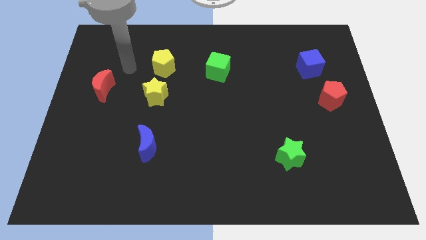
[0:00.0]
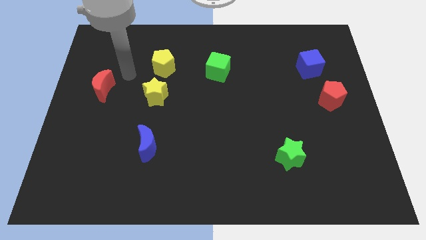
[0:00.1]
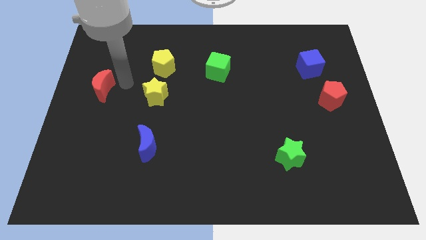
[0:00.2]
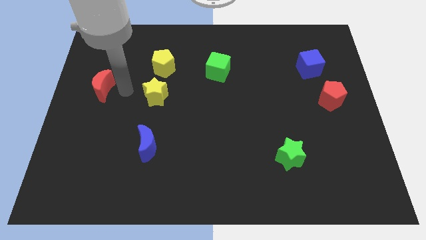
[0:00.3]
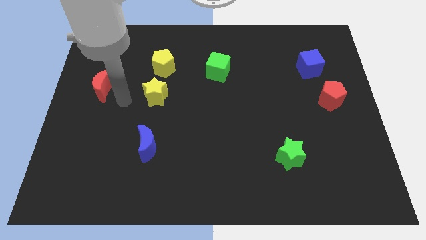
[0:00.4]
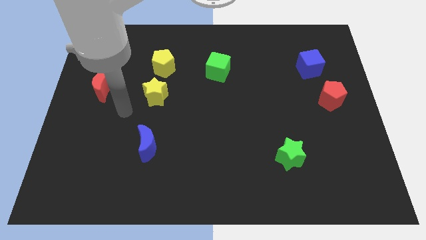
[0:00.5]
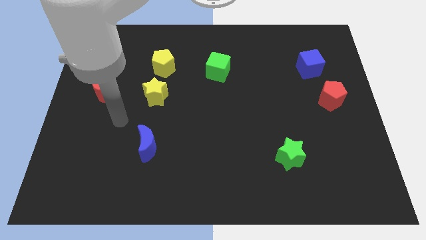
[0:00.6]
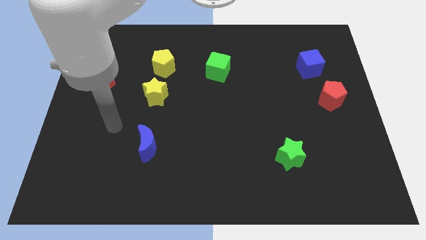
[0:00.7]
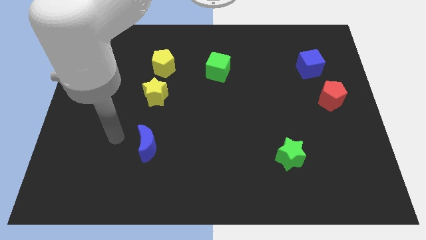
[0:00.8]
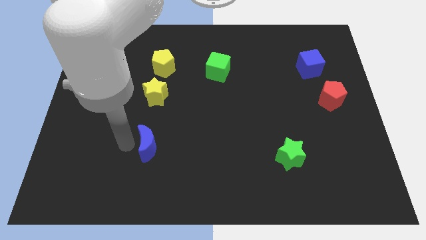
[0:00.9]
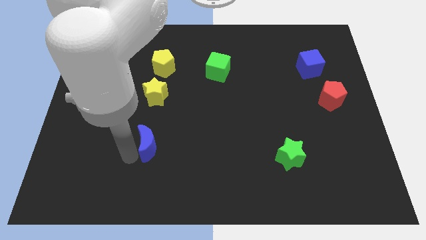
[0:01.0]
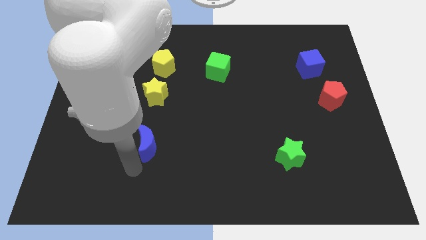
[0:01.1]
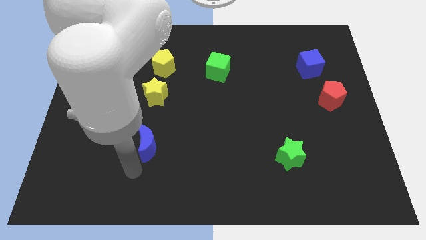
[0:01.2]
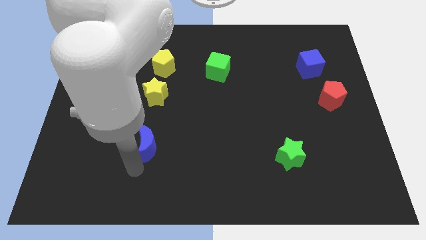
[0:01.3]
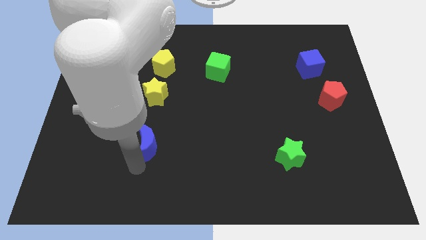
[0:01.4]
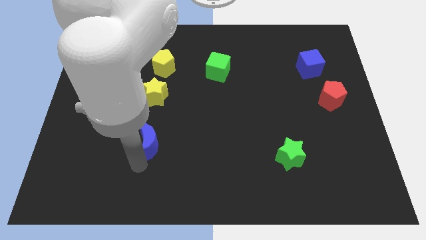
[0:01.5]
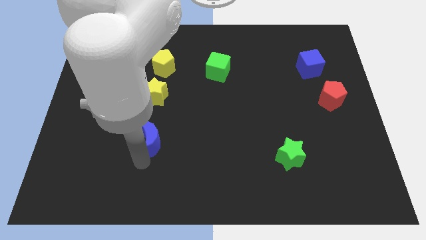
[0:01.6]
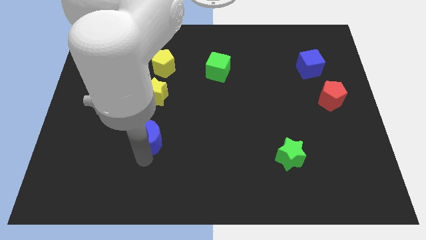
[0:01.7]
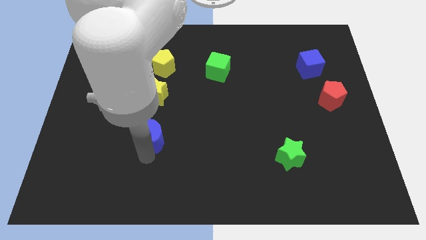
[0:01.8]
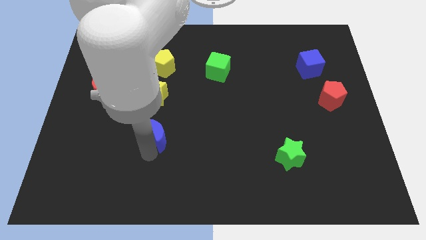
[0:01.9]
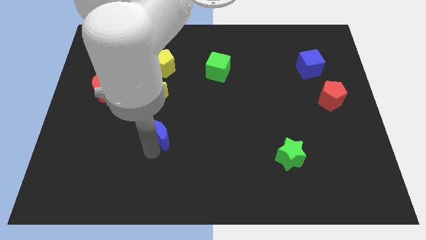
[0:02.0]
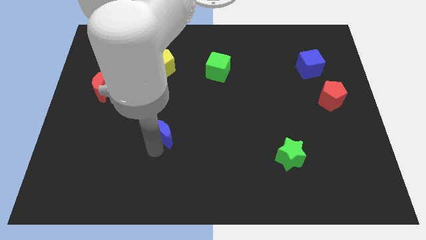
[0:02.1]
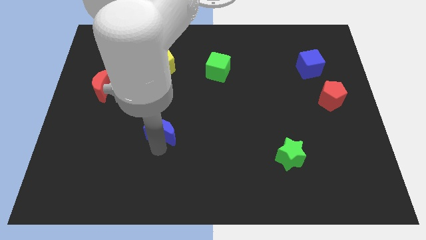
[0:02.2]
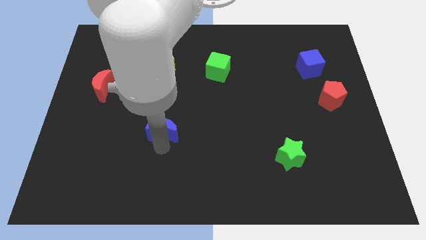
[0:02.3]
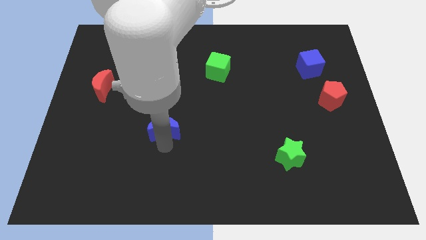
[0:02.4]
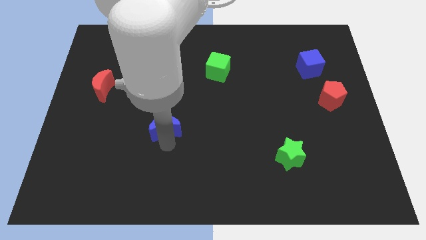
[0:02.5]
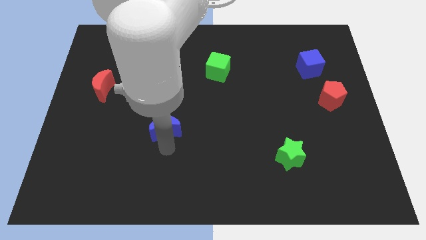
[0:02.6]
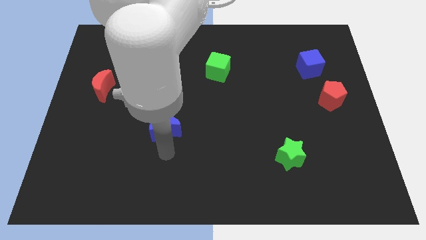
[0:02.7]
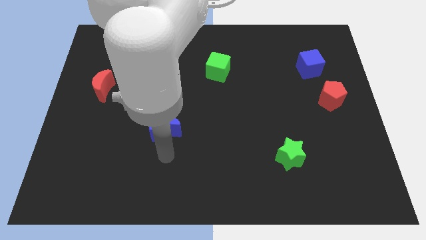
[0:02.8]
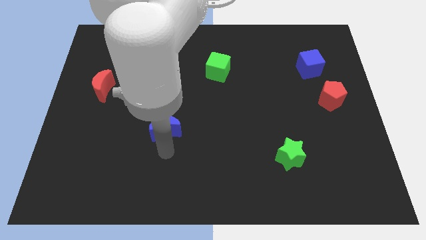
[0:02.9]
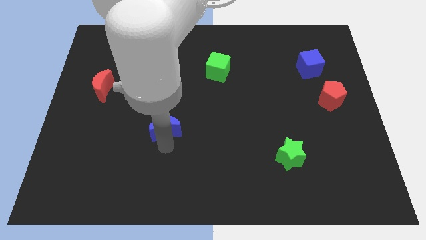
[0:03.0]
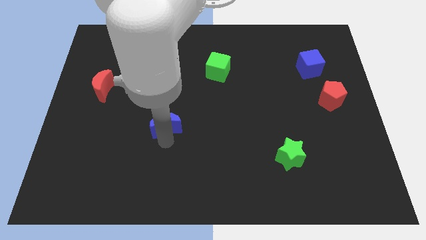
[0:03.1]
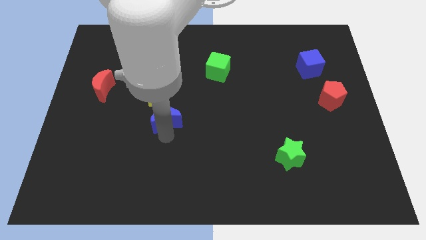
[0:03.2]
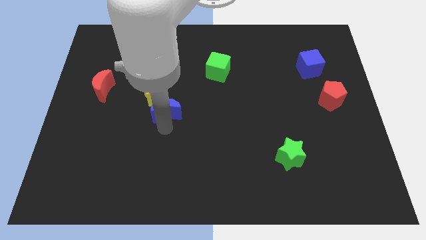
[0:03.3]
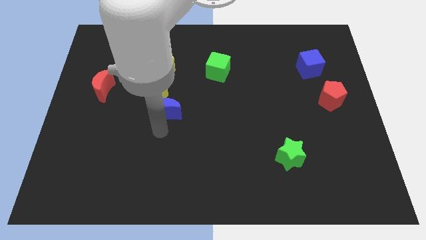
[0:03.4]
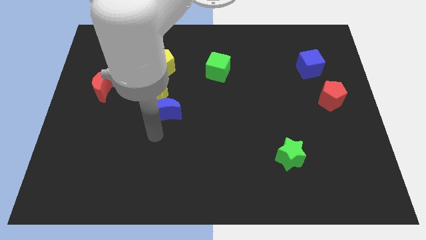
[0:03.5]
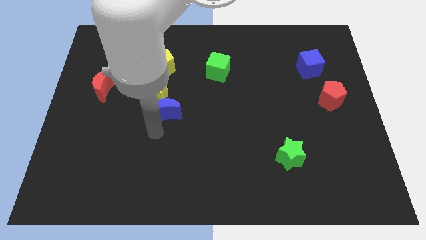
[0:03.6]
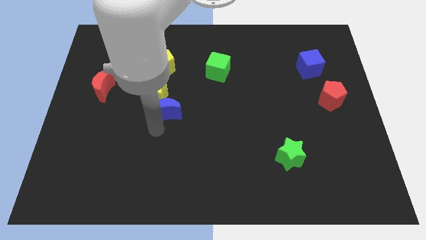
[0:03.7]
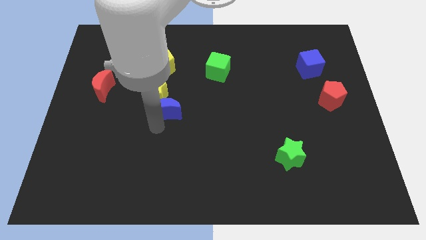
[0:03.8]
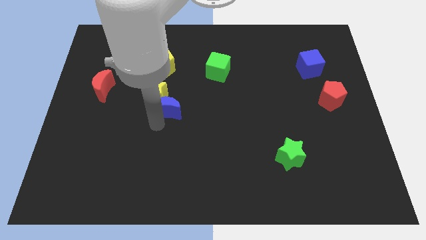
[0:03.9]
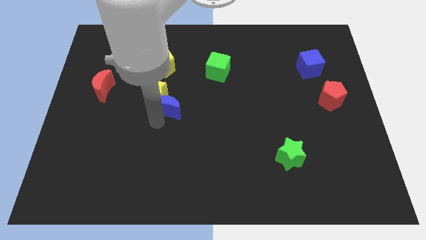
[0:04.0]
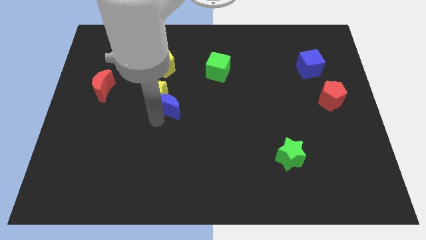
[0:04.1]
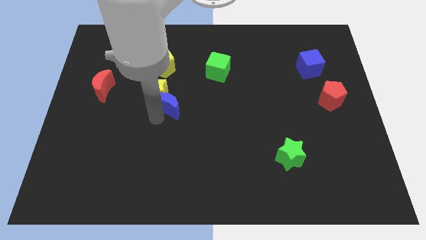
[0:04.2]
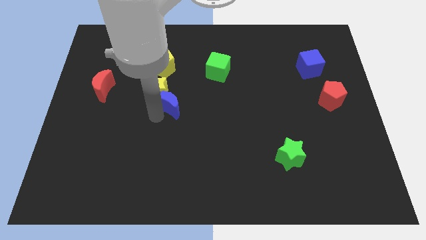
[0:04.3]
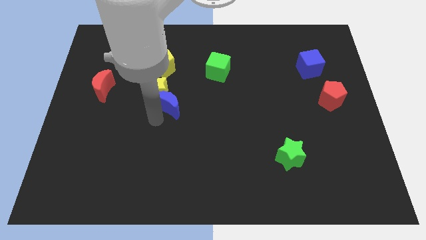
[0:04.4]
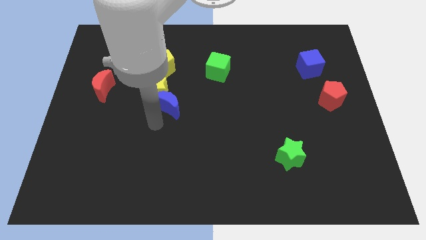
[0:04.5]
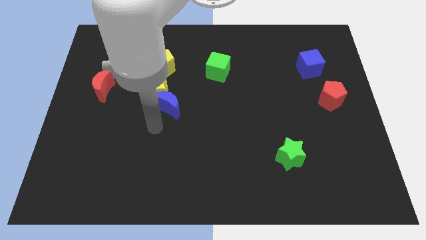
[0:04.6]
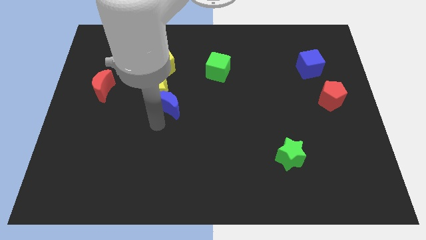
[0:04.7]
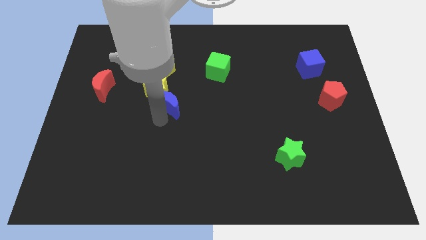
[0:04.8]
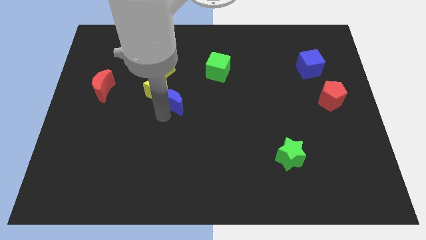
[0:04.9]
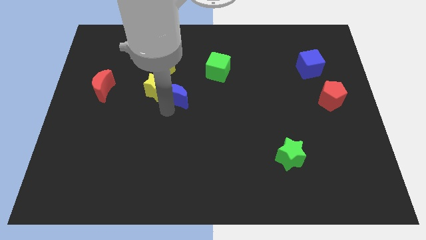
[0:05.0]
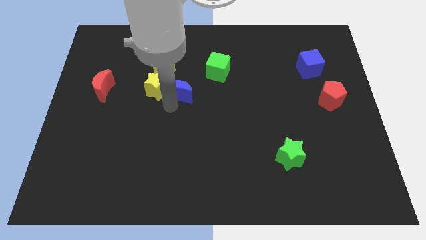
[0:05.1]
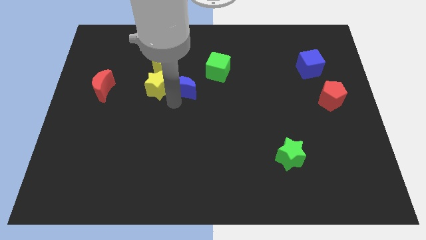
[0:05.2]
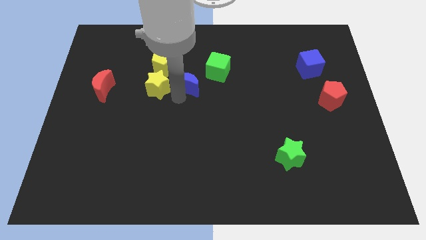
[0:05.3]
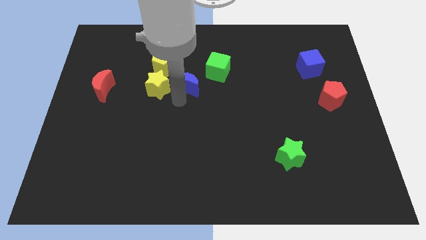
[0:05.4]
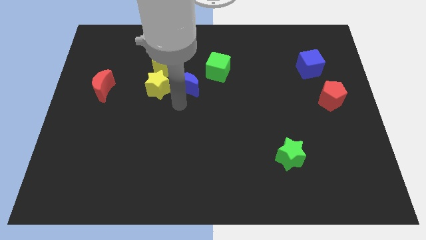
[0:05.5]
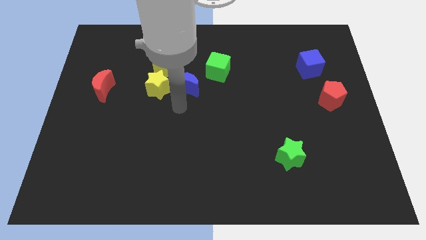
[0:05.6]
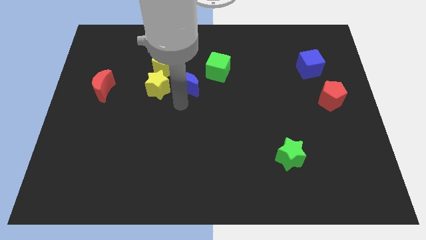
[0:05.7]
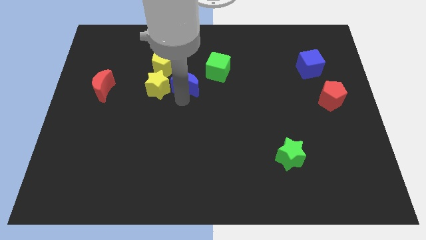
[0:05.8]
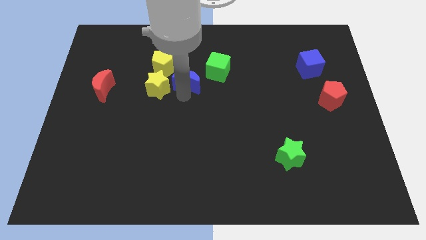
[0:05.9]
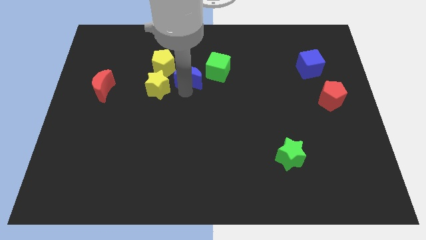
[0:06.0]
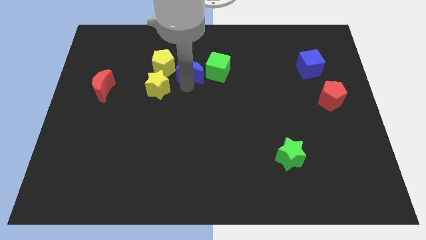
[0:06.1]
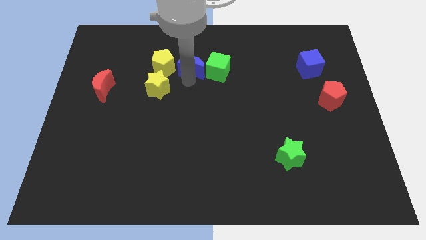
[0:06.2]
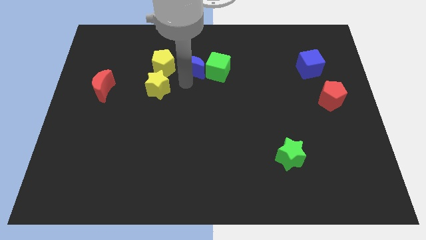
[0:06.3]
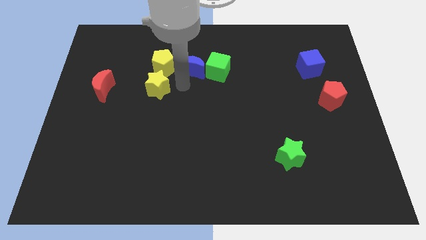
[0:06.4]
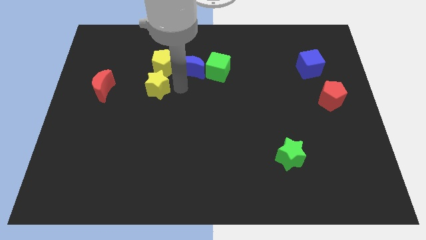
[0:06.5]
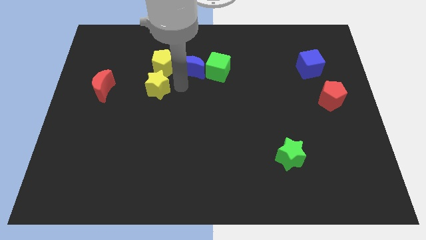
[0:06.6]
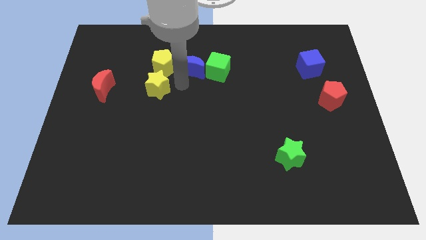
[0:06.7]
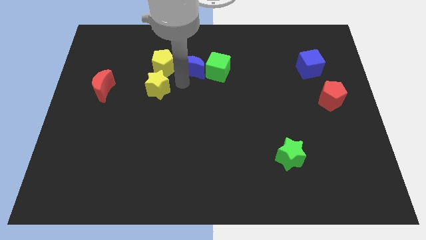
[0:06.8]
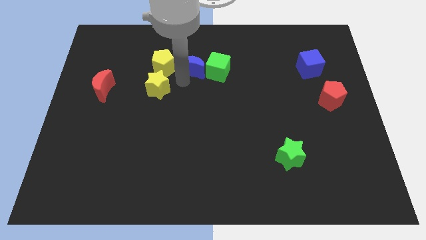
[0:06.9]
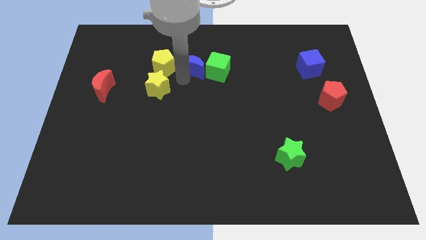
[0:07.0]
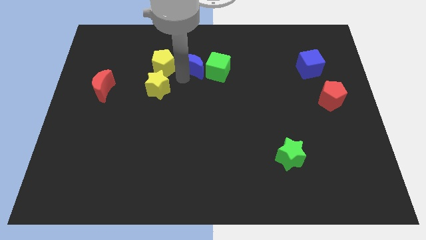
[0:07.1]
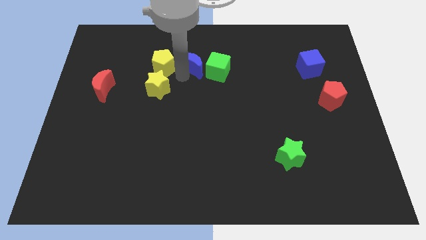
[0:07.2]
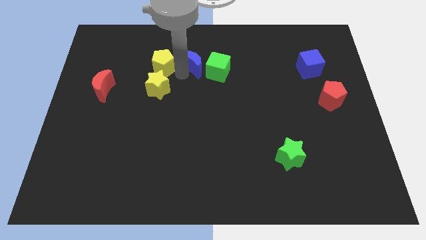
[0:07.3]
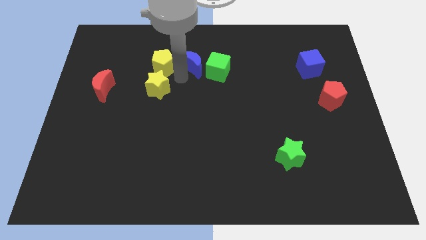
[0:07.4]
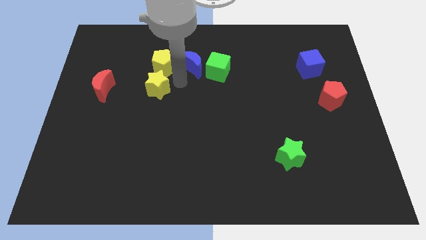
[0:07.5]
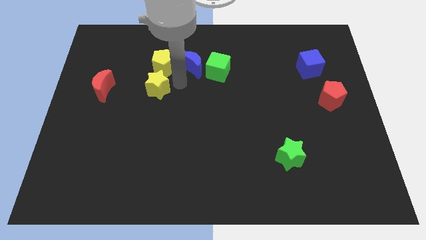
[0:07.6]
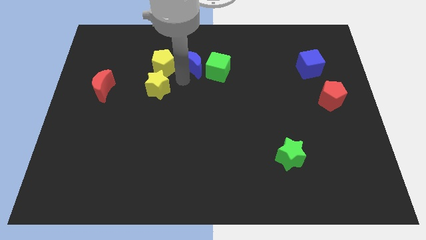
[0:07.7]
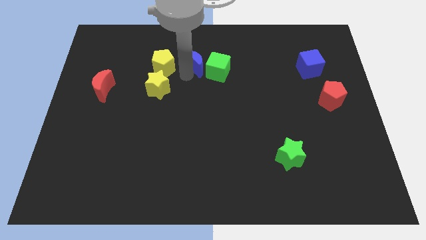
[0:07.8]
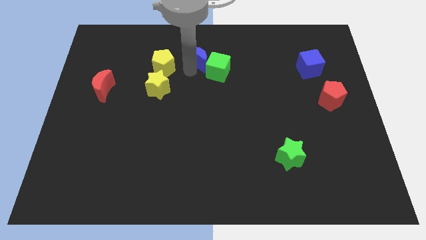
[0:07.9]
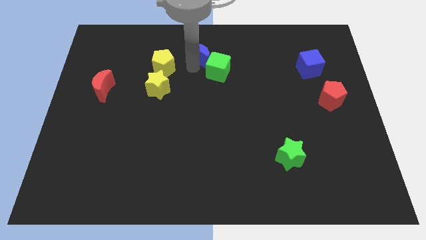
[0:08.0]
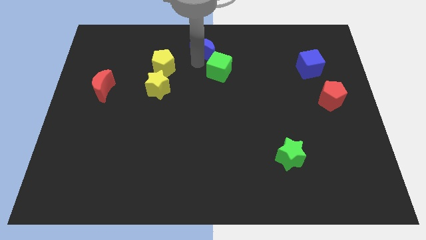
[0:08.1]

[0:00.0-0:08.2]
move the blue moon to the towards your base

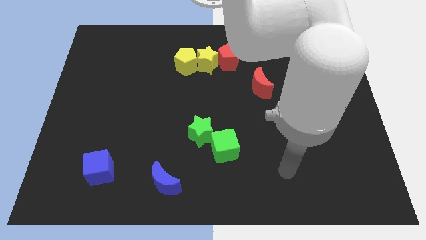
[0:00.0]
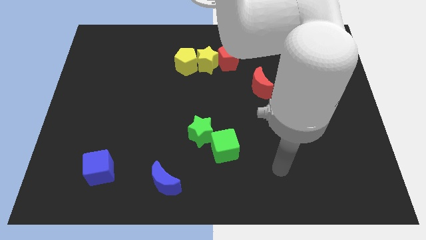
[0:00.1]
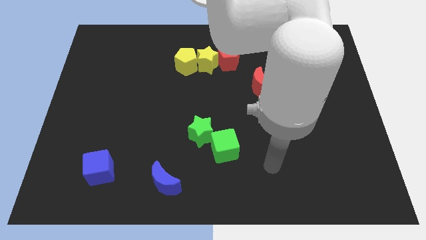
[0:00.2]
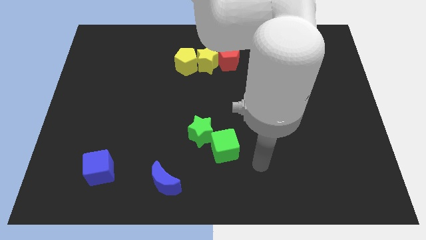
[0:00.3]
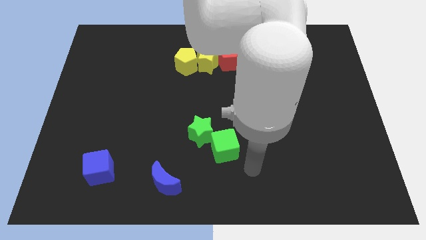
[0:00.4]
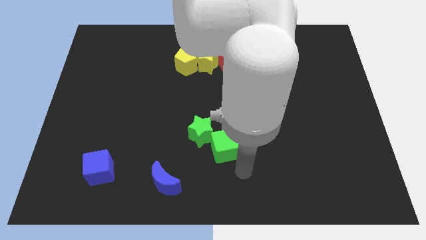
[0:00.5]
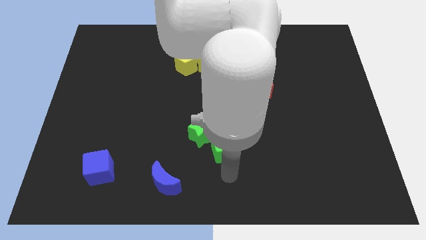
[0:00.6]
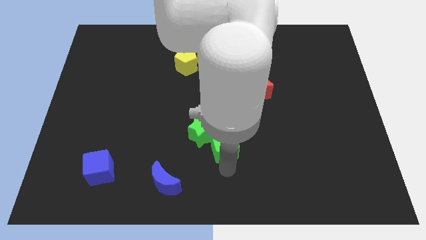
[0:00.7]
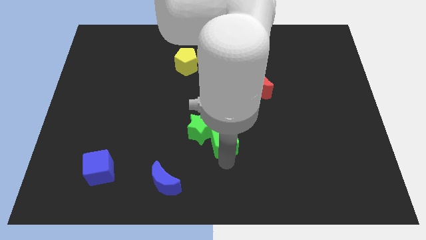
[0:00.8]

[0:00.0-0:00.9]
put the green cube to the middle
